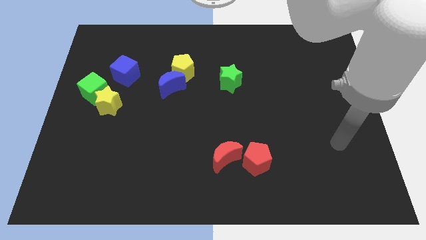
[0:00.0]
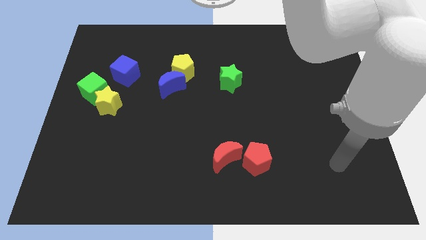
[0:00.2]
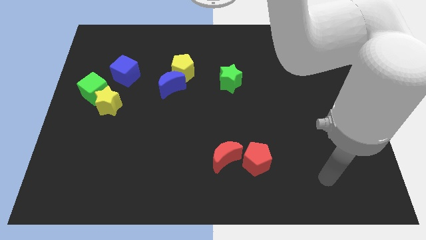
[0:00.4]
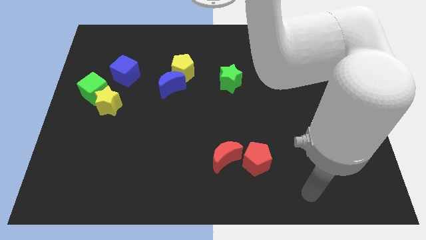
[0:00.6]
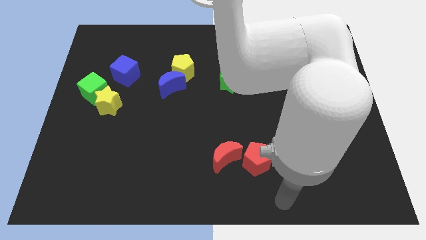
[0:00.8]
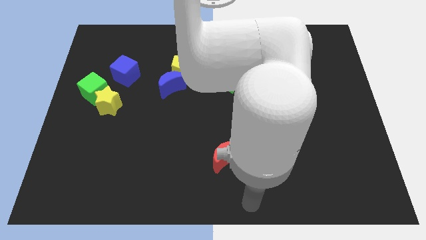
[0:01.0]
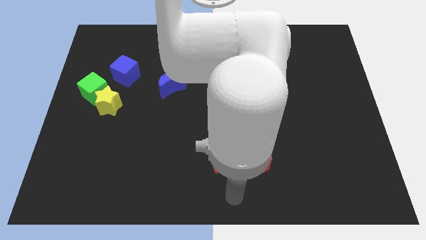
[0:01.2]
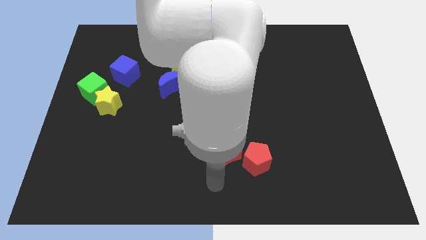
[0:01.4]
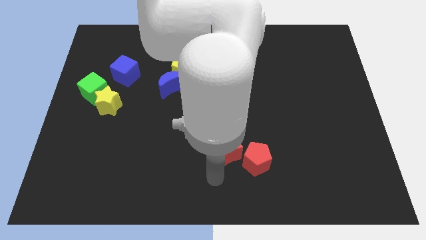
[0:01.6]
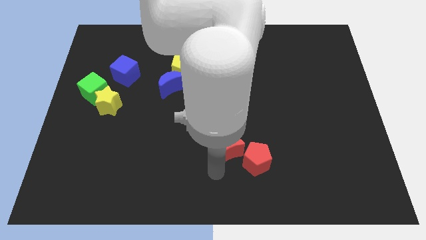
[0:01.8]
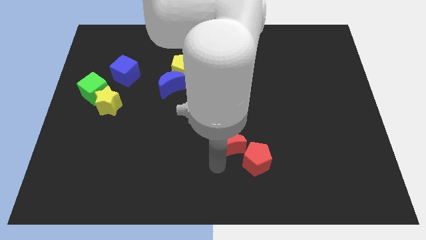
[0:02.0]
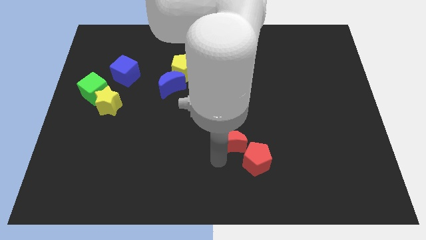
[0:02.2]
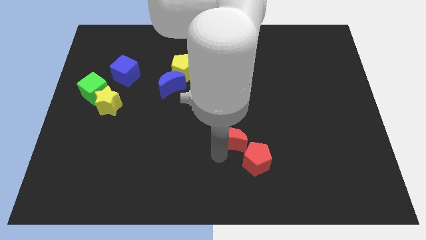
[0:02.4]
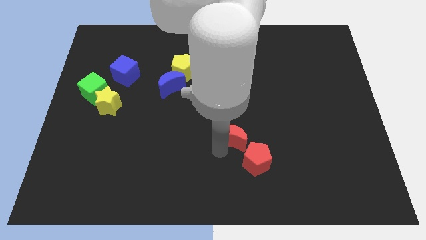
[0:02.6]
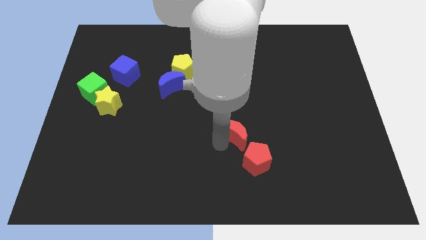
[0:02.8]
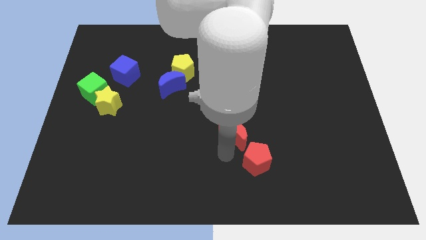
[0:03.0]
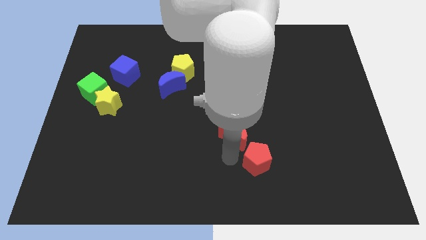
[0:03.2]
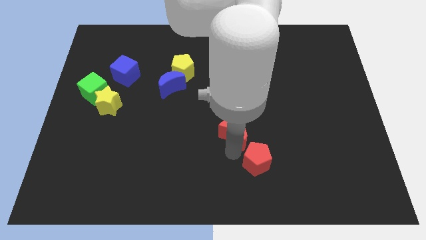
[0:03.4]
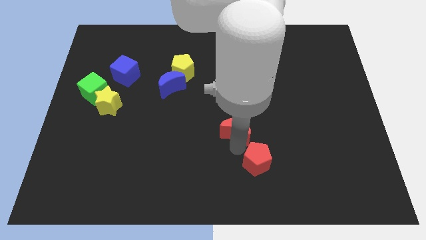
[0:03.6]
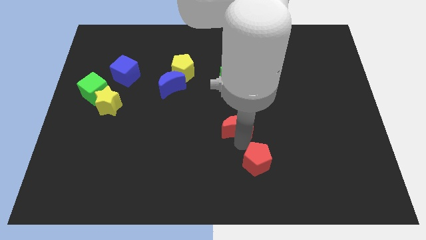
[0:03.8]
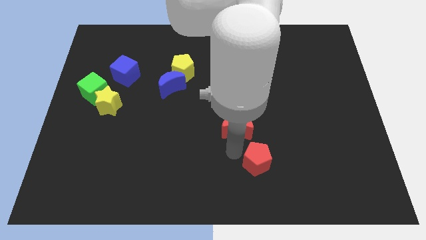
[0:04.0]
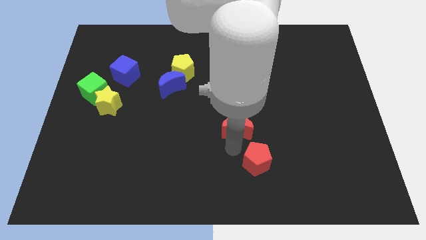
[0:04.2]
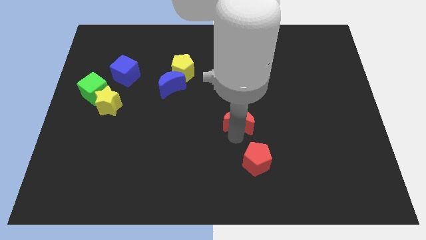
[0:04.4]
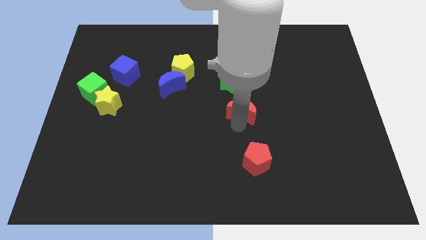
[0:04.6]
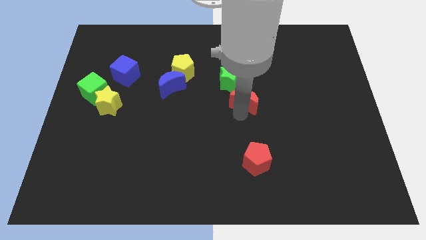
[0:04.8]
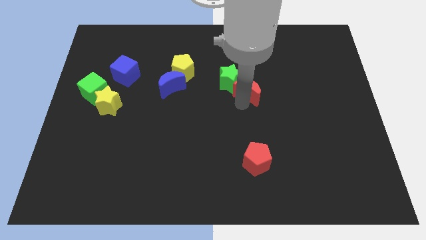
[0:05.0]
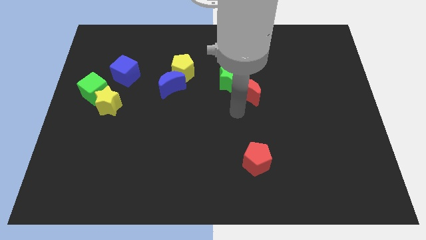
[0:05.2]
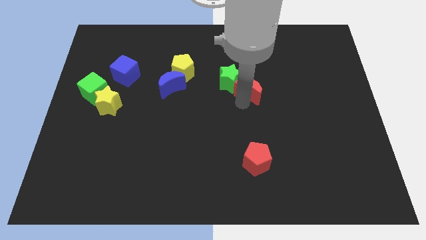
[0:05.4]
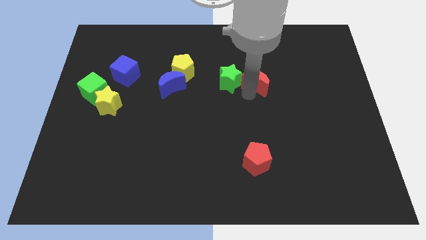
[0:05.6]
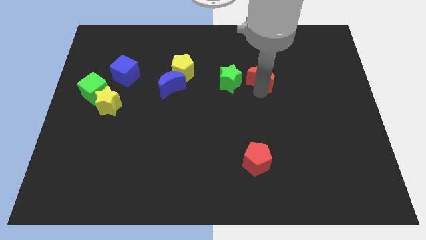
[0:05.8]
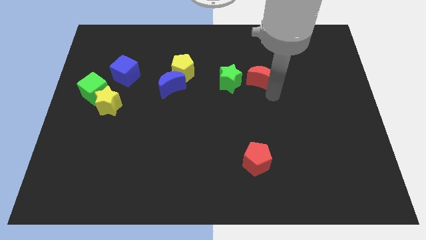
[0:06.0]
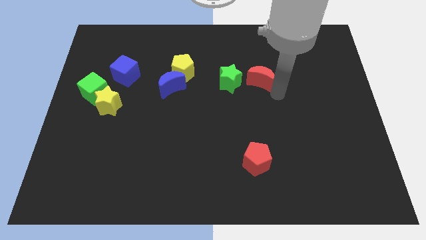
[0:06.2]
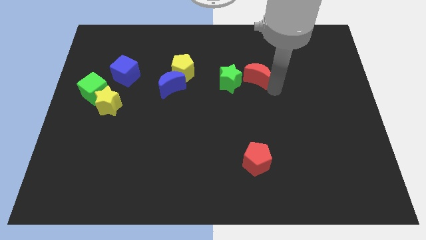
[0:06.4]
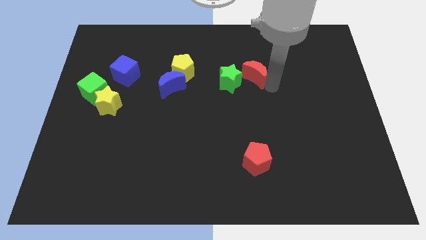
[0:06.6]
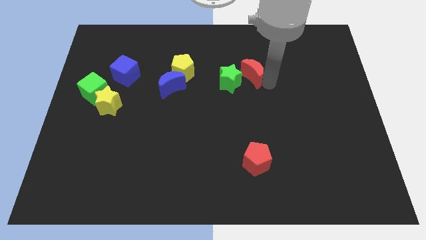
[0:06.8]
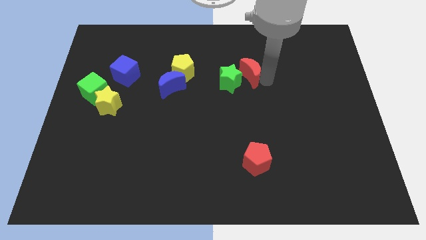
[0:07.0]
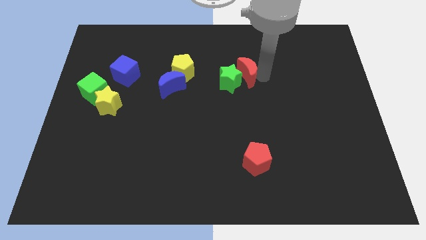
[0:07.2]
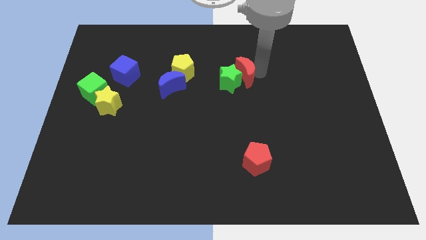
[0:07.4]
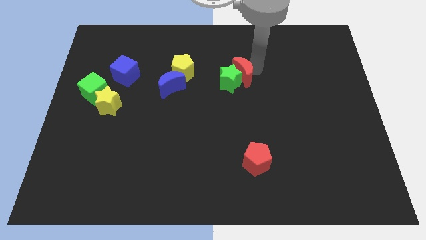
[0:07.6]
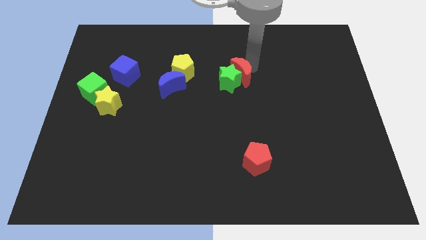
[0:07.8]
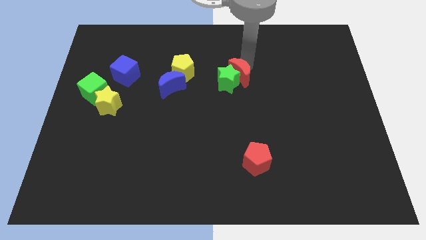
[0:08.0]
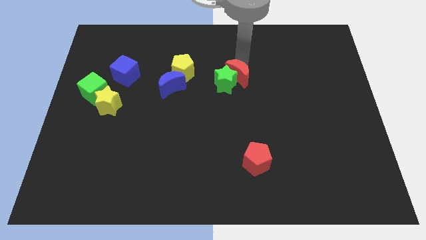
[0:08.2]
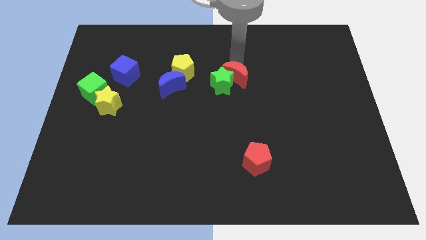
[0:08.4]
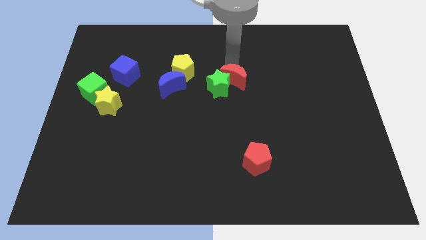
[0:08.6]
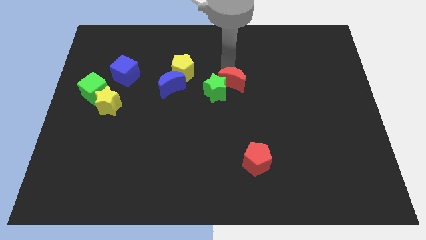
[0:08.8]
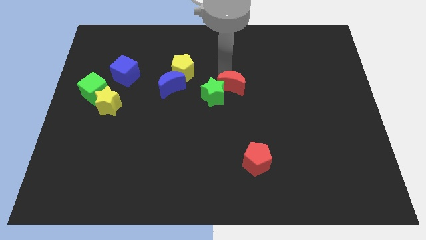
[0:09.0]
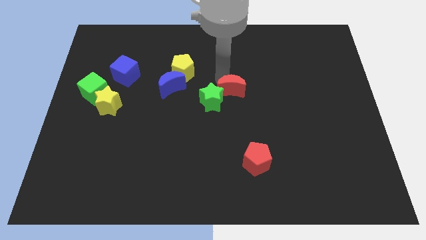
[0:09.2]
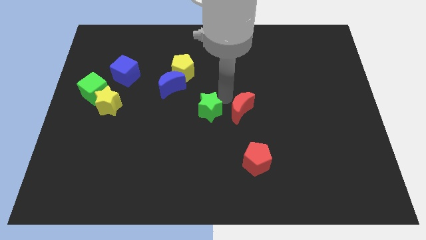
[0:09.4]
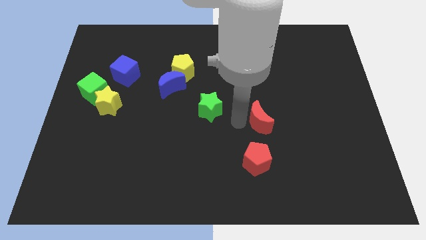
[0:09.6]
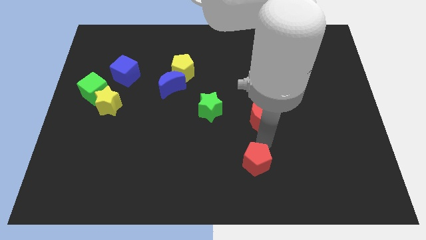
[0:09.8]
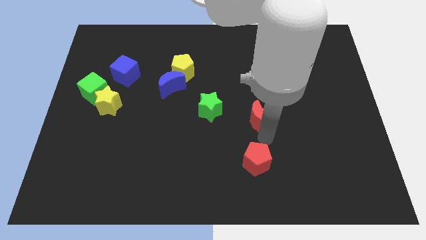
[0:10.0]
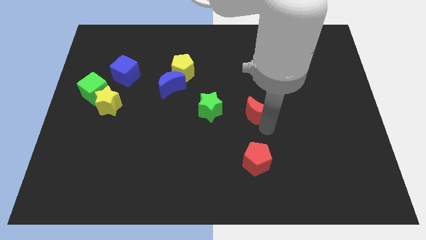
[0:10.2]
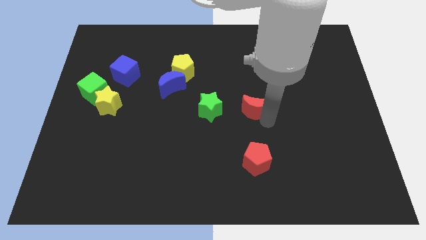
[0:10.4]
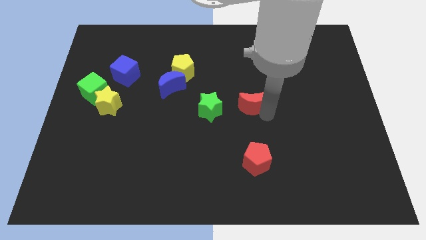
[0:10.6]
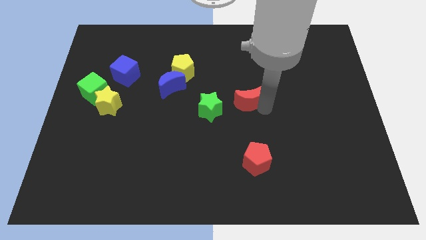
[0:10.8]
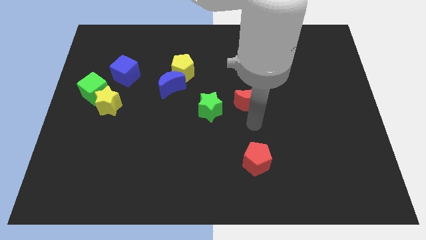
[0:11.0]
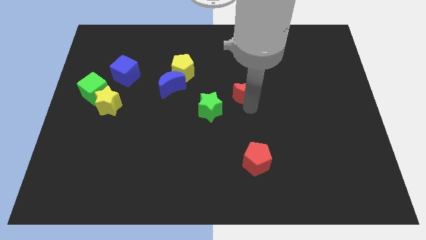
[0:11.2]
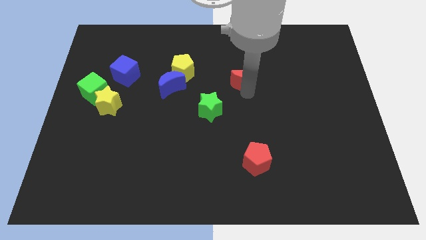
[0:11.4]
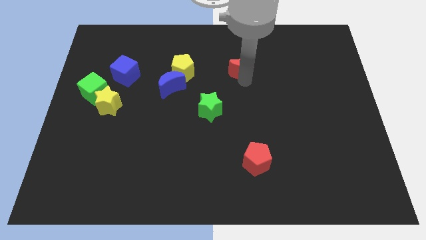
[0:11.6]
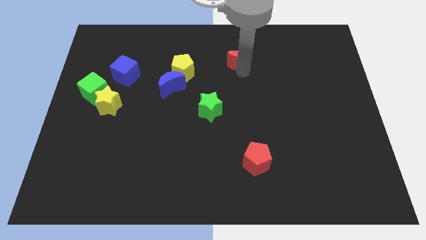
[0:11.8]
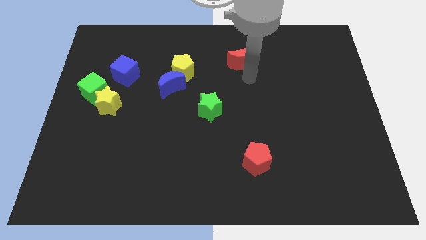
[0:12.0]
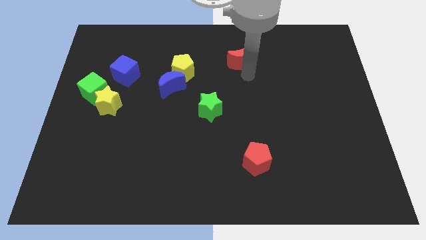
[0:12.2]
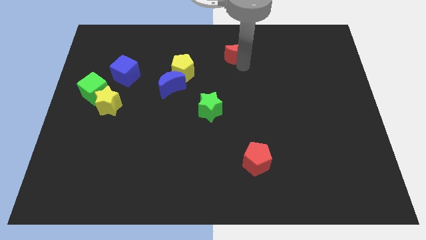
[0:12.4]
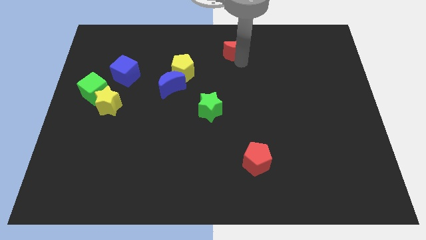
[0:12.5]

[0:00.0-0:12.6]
move the red moon to the top
